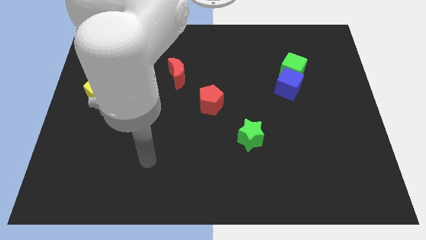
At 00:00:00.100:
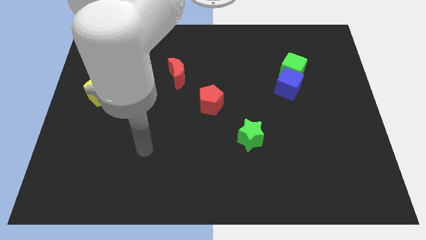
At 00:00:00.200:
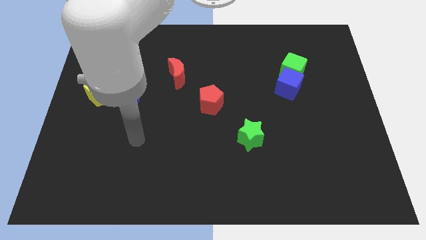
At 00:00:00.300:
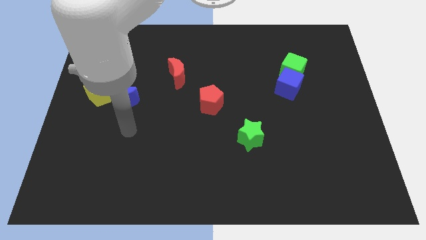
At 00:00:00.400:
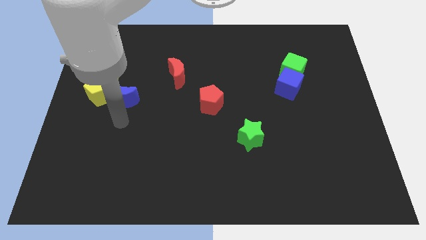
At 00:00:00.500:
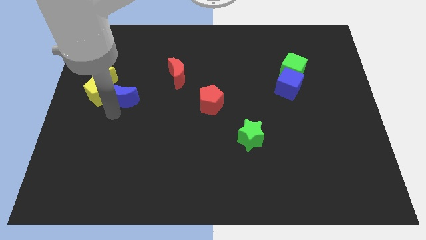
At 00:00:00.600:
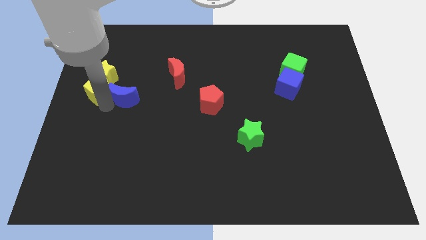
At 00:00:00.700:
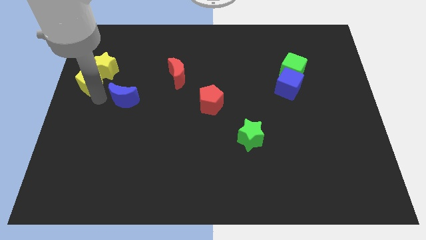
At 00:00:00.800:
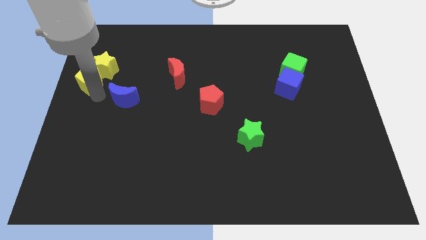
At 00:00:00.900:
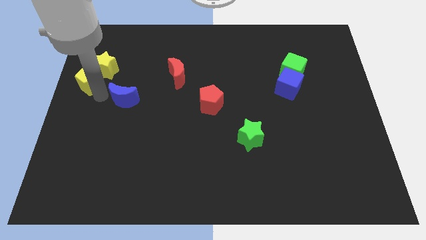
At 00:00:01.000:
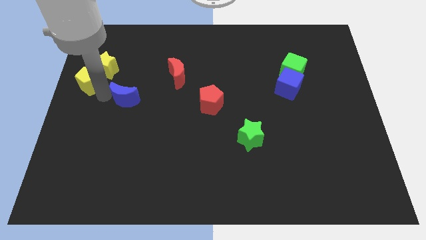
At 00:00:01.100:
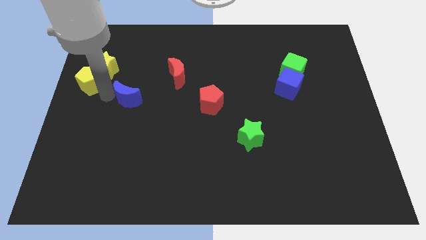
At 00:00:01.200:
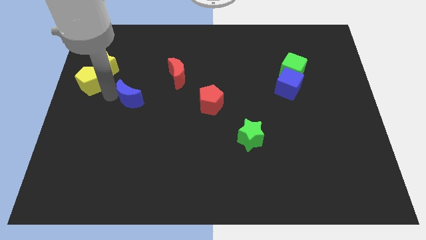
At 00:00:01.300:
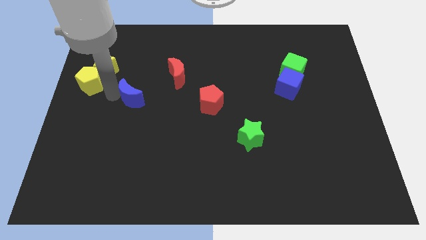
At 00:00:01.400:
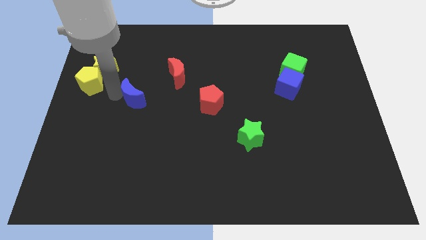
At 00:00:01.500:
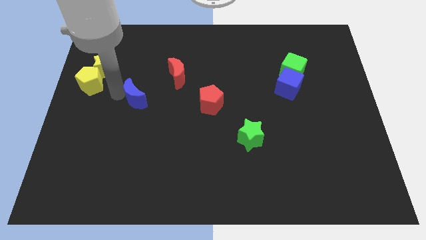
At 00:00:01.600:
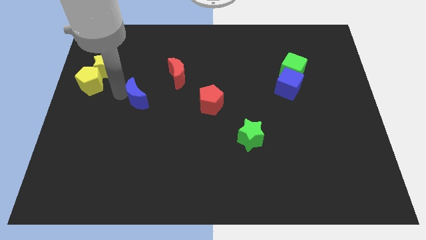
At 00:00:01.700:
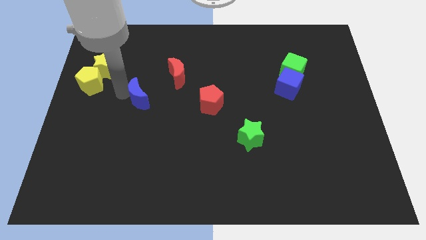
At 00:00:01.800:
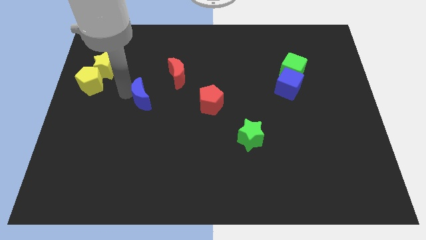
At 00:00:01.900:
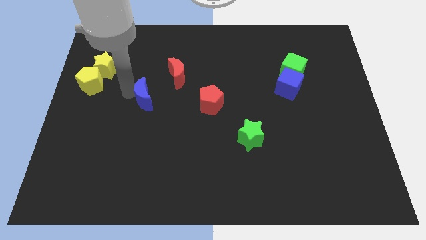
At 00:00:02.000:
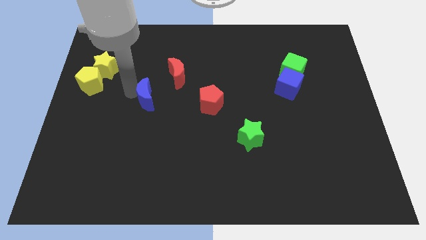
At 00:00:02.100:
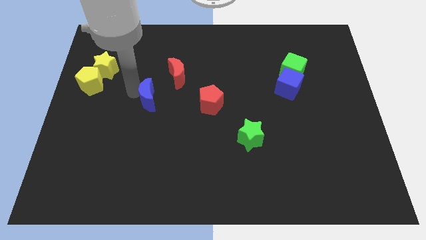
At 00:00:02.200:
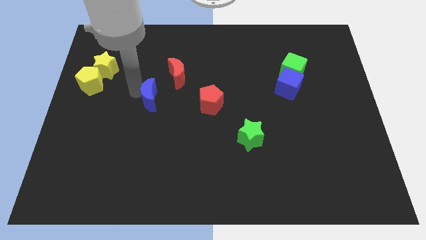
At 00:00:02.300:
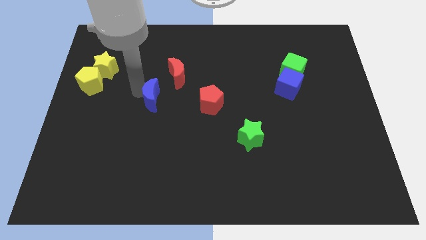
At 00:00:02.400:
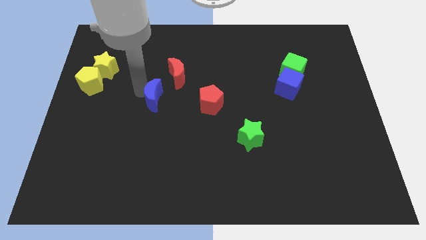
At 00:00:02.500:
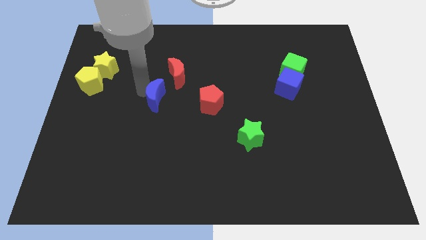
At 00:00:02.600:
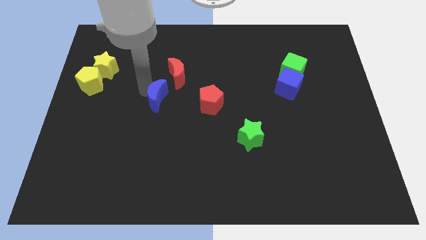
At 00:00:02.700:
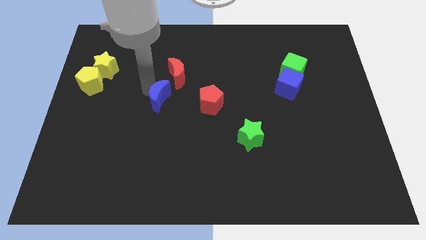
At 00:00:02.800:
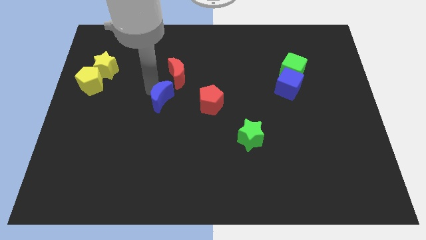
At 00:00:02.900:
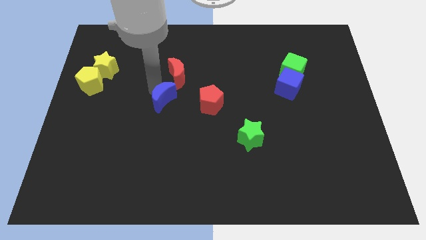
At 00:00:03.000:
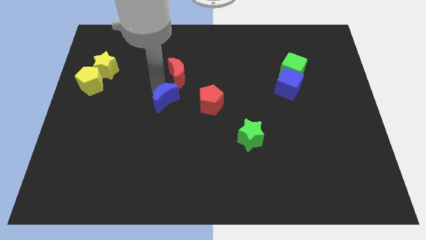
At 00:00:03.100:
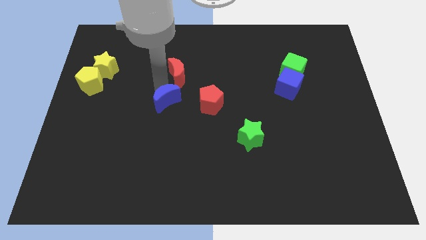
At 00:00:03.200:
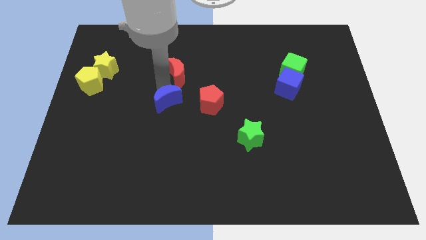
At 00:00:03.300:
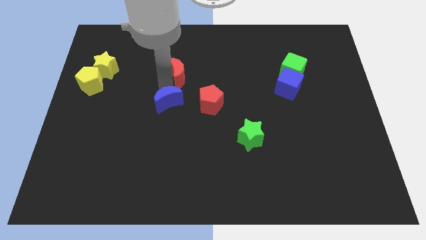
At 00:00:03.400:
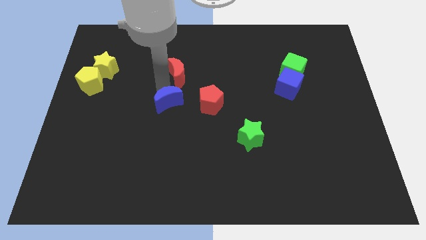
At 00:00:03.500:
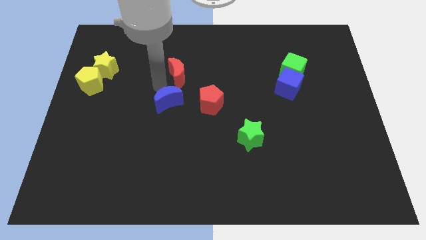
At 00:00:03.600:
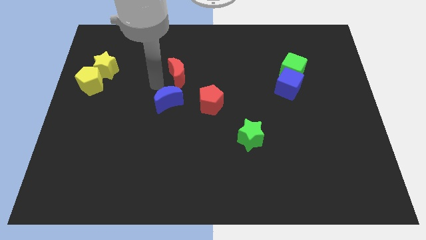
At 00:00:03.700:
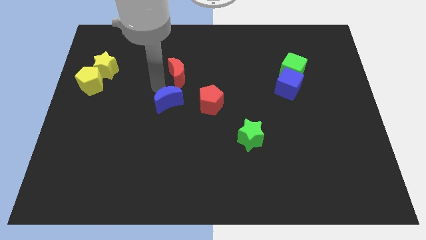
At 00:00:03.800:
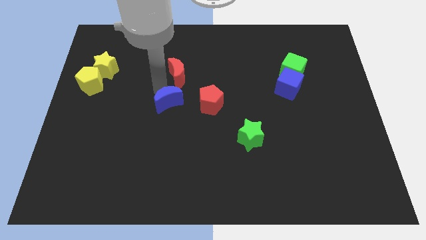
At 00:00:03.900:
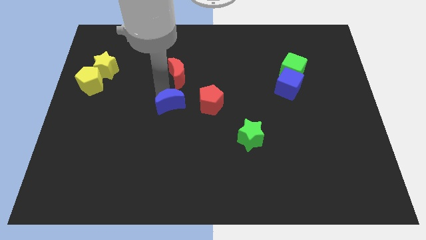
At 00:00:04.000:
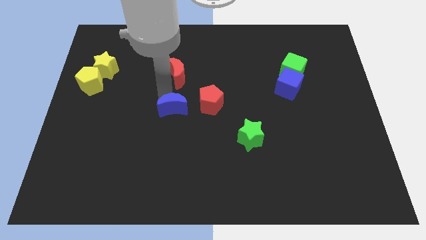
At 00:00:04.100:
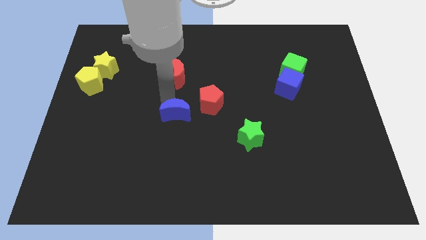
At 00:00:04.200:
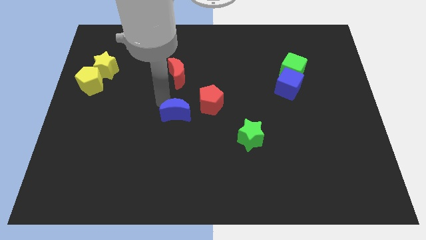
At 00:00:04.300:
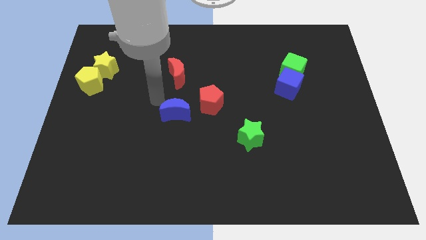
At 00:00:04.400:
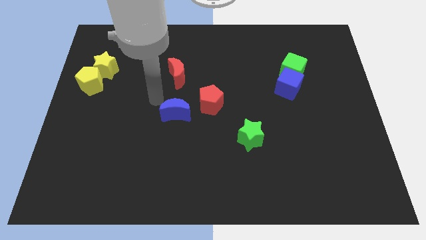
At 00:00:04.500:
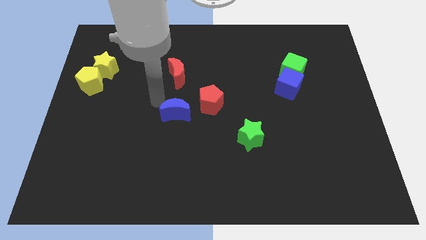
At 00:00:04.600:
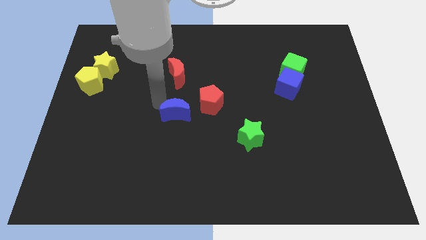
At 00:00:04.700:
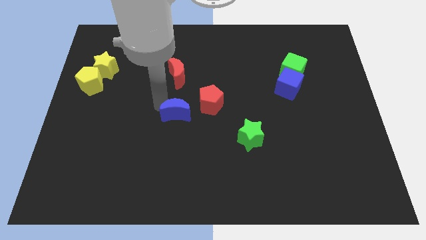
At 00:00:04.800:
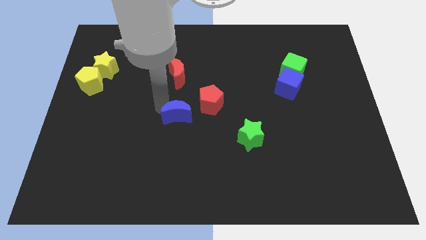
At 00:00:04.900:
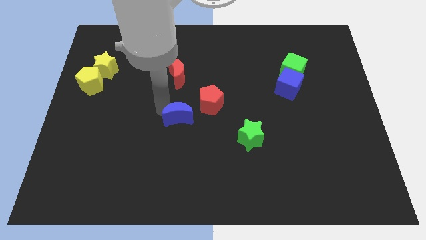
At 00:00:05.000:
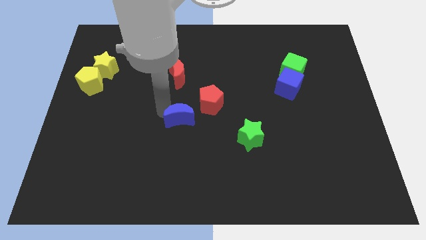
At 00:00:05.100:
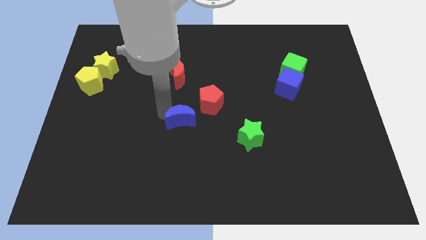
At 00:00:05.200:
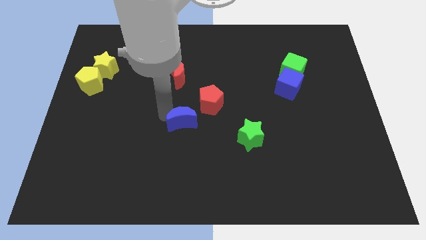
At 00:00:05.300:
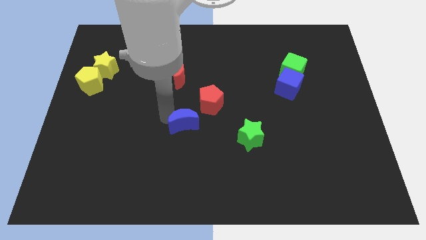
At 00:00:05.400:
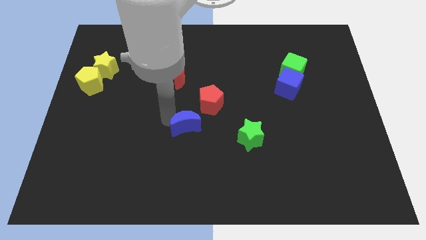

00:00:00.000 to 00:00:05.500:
move the blue moon to the left of the green star

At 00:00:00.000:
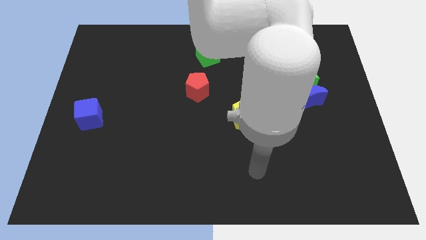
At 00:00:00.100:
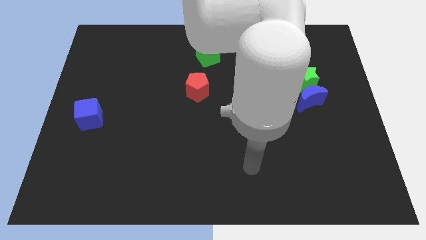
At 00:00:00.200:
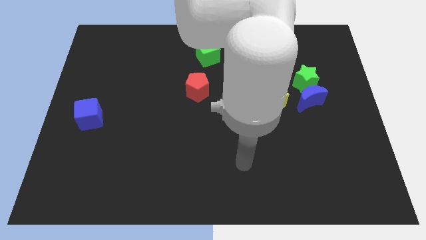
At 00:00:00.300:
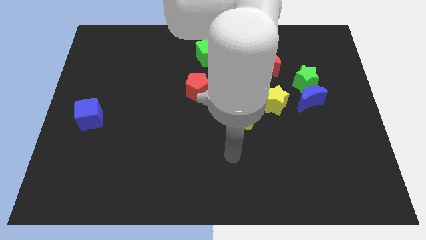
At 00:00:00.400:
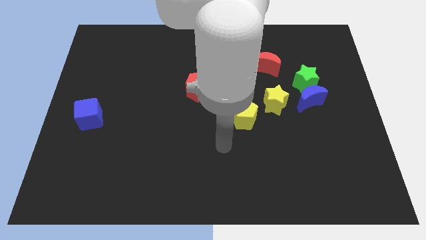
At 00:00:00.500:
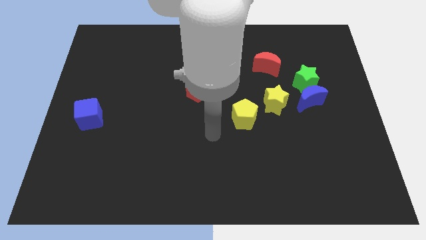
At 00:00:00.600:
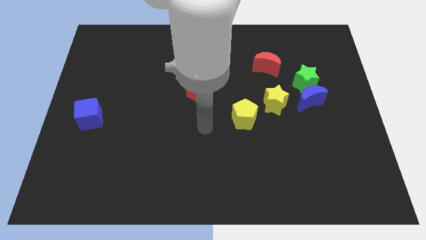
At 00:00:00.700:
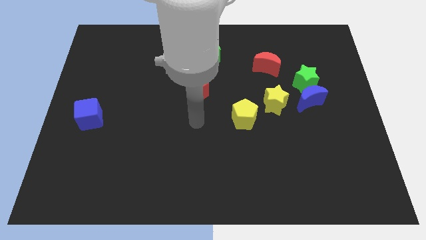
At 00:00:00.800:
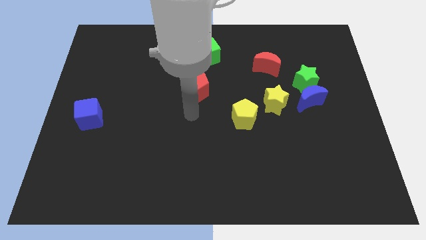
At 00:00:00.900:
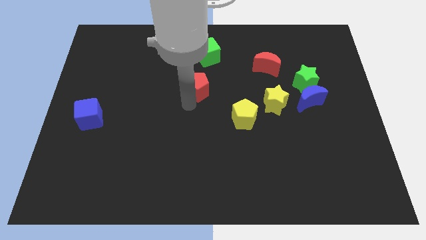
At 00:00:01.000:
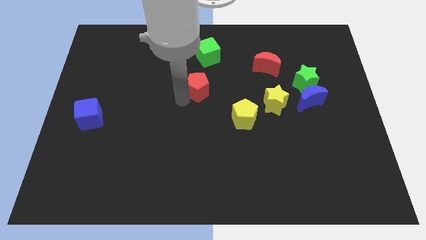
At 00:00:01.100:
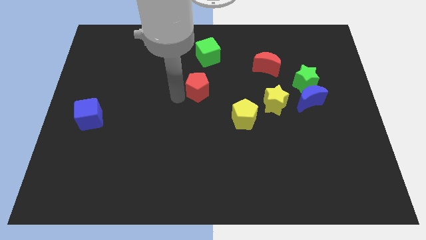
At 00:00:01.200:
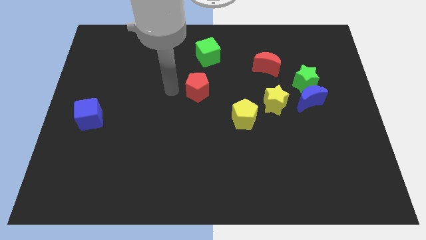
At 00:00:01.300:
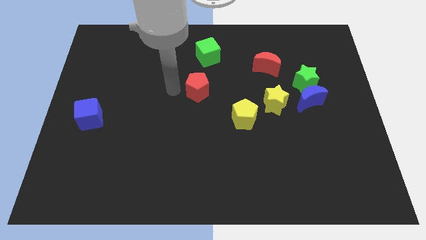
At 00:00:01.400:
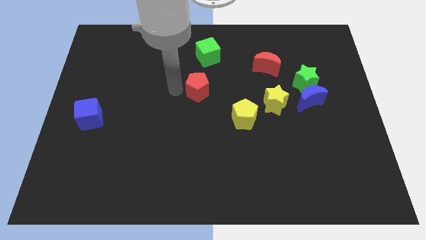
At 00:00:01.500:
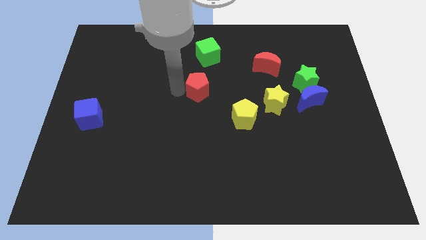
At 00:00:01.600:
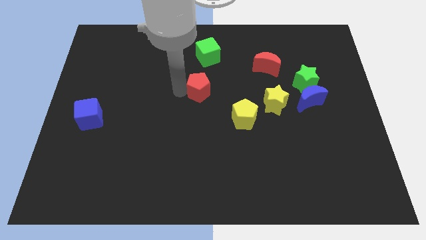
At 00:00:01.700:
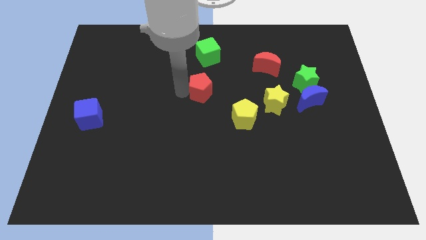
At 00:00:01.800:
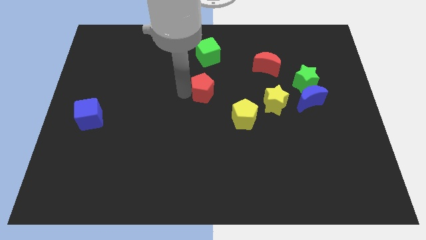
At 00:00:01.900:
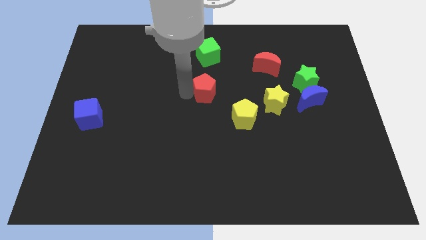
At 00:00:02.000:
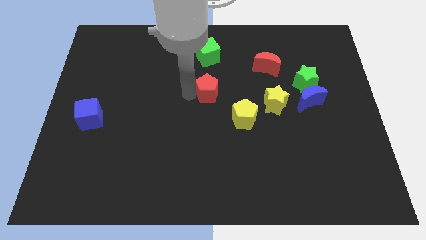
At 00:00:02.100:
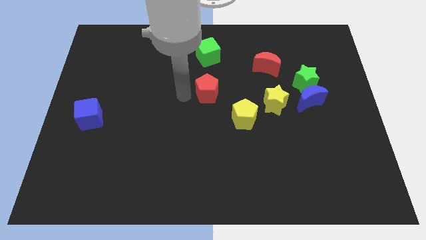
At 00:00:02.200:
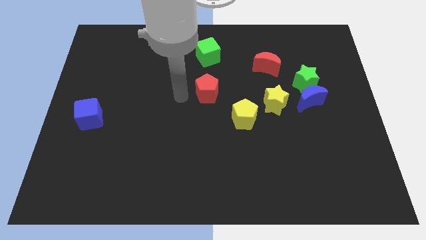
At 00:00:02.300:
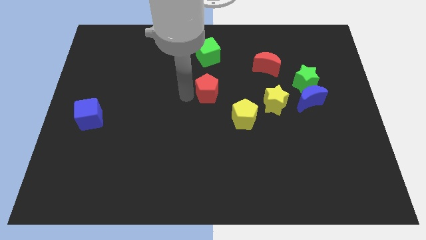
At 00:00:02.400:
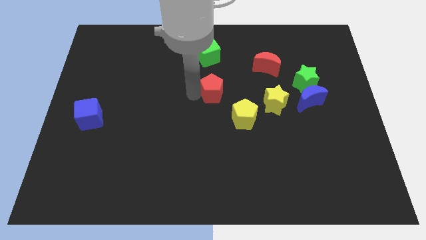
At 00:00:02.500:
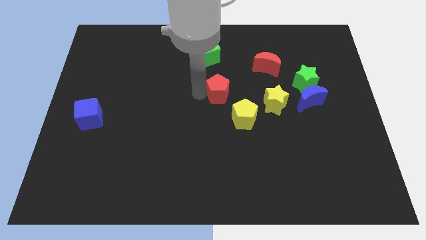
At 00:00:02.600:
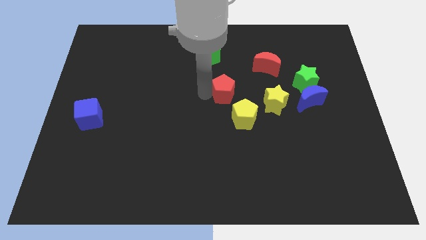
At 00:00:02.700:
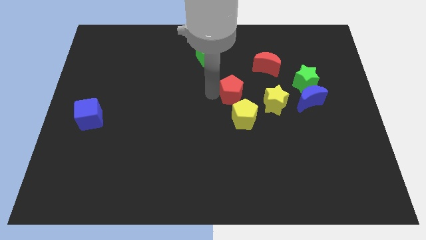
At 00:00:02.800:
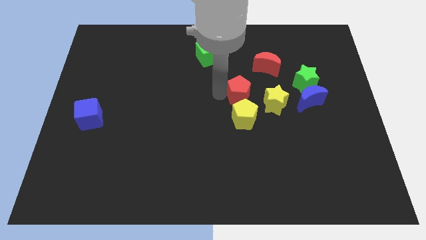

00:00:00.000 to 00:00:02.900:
put the red pentagon to the top left of the yellow star
